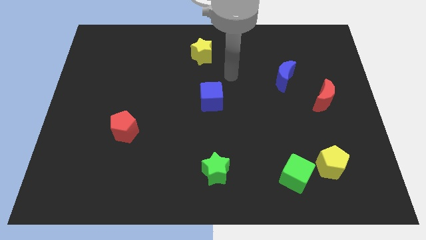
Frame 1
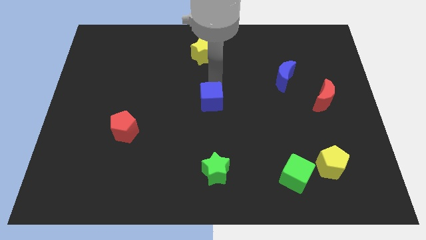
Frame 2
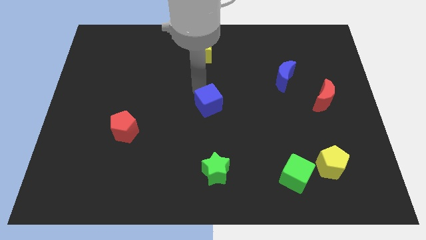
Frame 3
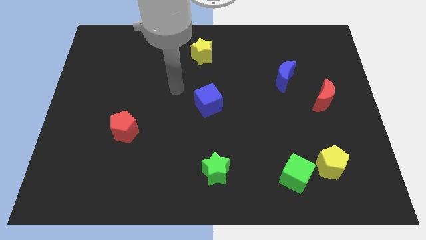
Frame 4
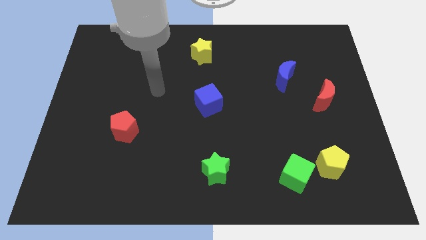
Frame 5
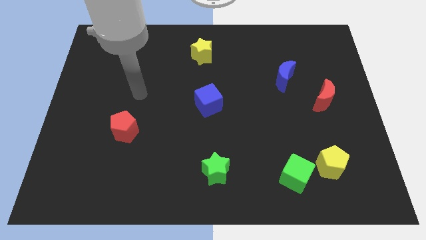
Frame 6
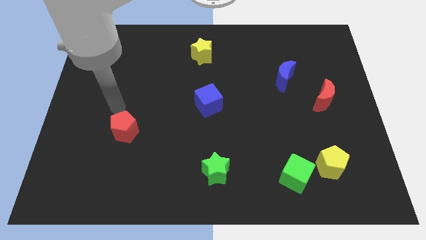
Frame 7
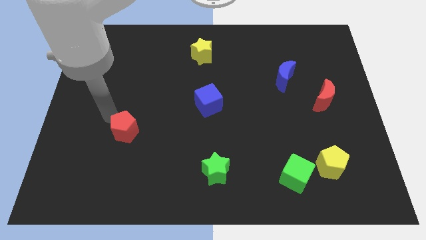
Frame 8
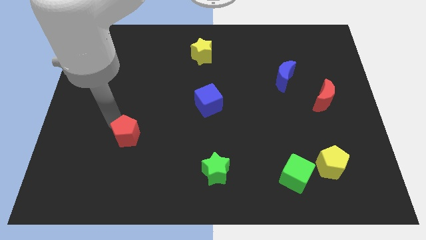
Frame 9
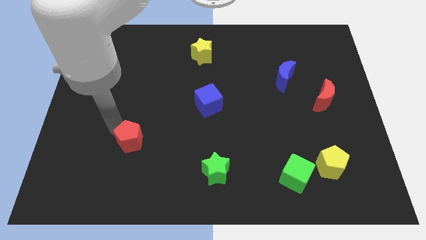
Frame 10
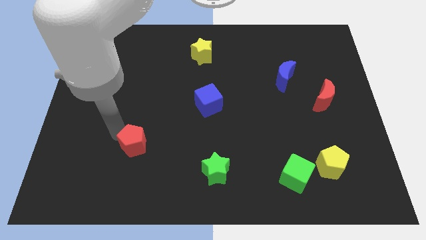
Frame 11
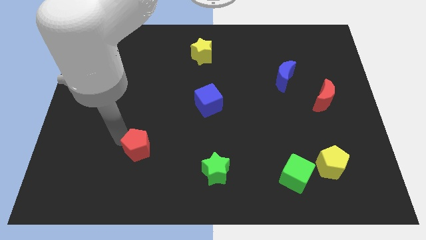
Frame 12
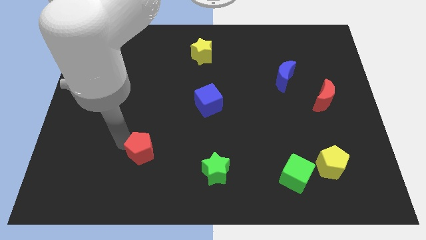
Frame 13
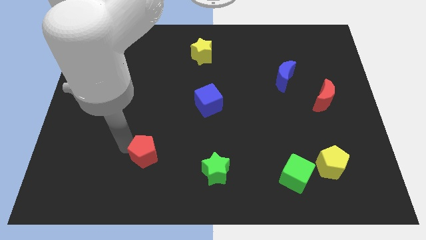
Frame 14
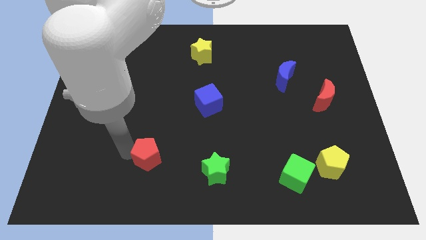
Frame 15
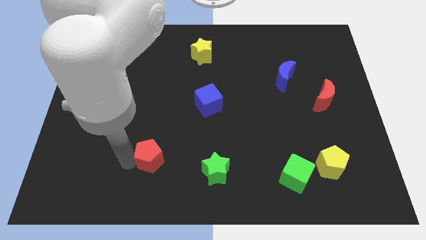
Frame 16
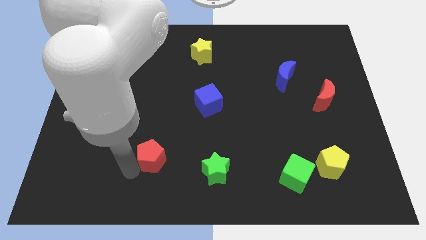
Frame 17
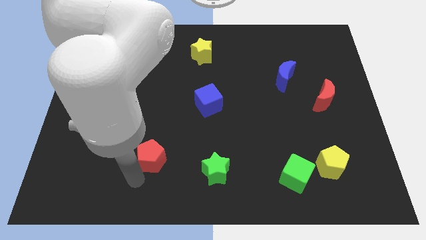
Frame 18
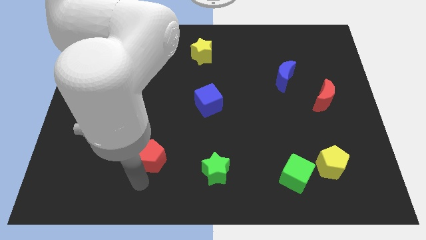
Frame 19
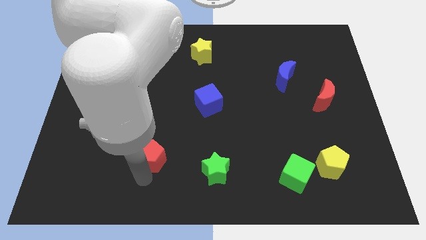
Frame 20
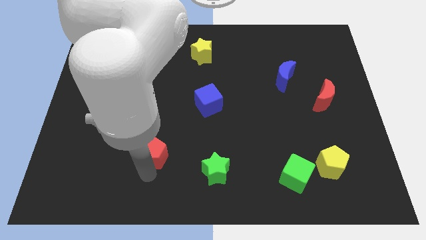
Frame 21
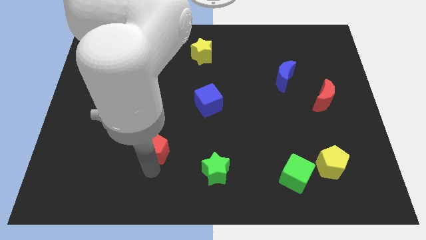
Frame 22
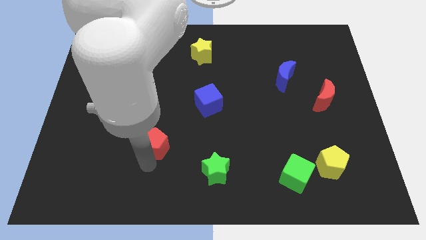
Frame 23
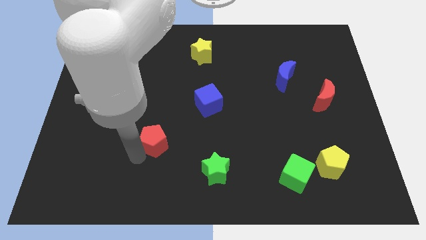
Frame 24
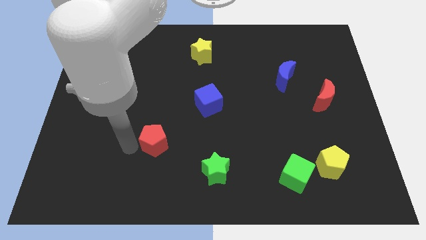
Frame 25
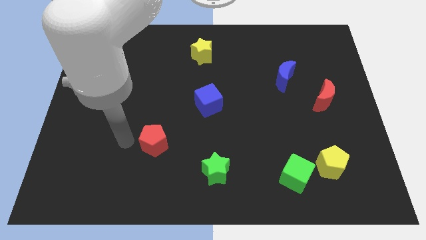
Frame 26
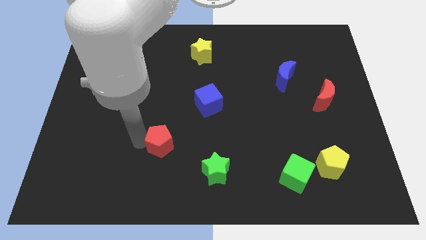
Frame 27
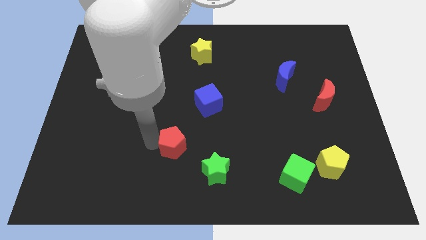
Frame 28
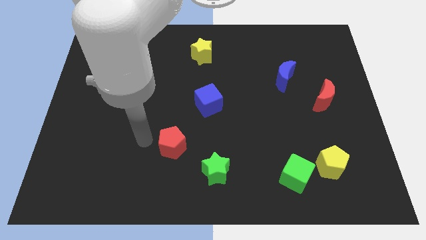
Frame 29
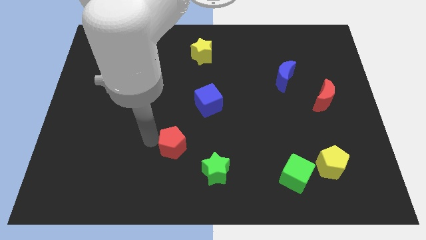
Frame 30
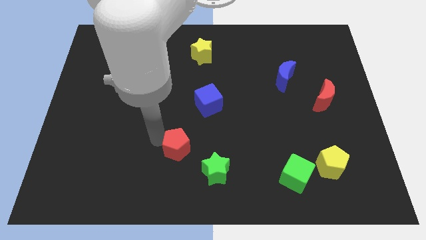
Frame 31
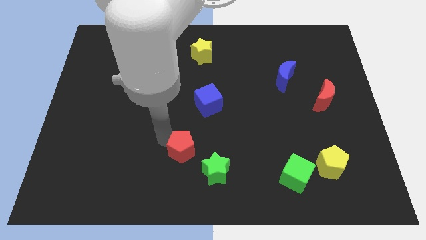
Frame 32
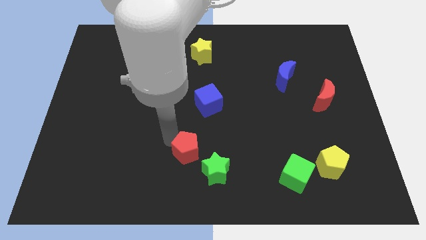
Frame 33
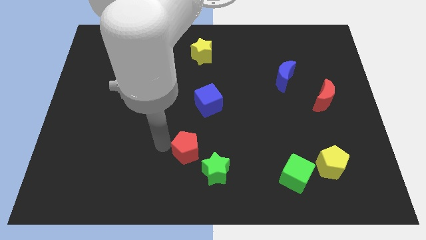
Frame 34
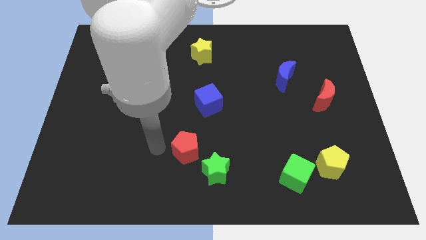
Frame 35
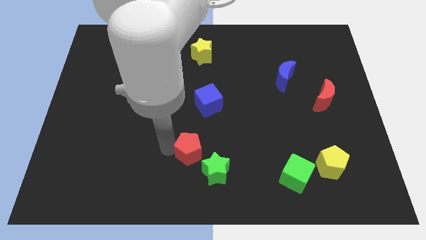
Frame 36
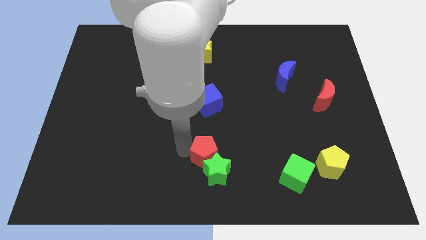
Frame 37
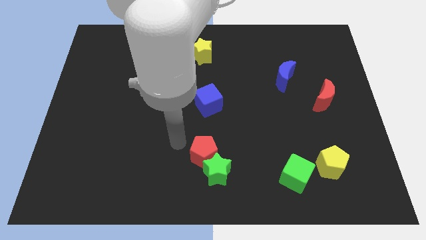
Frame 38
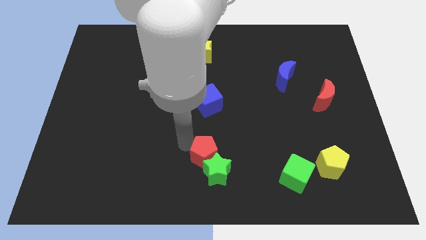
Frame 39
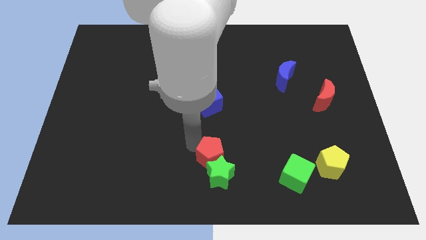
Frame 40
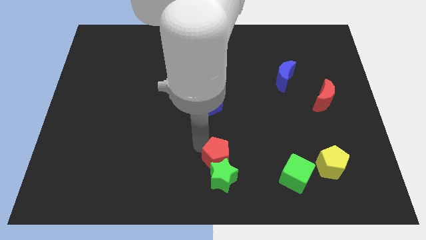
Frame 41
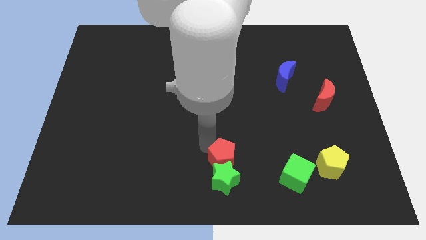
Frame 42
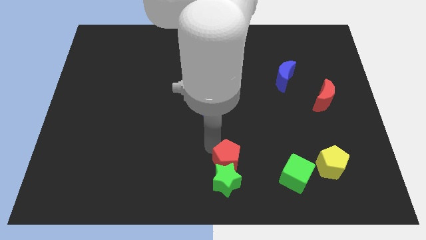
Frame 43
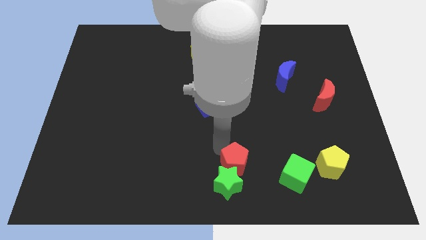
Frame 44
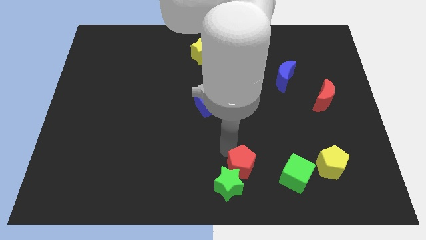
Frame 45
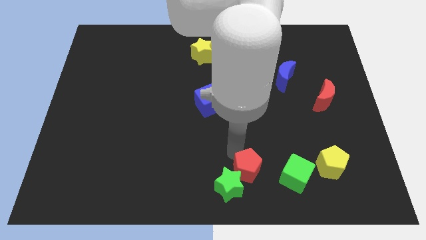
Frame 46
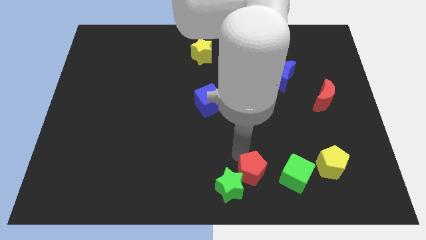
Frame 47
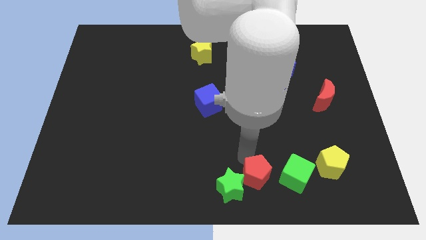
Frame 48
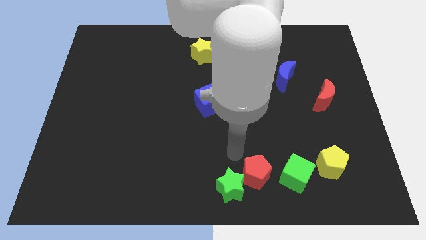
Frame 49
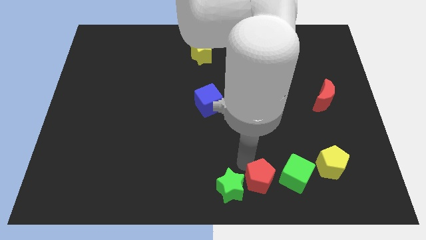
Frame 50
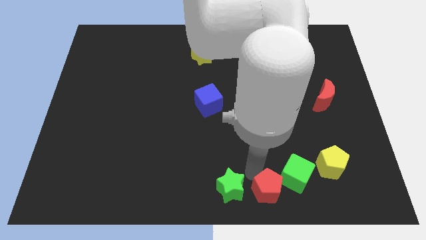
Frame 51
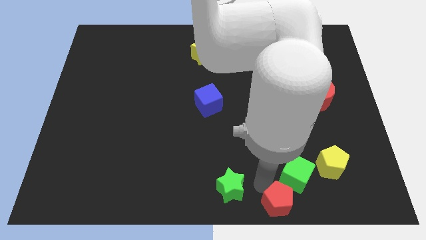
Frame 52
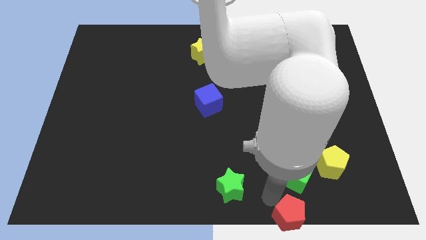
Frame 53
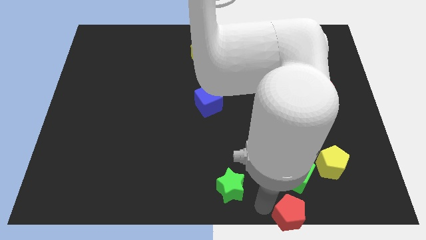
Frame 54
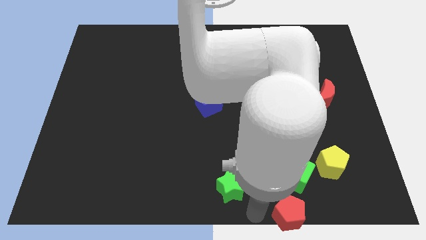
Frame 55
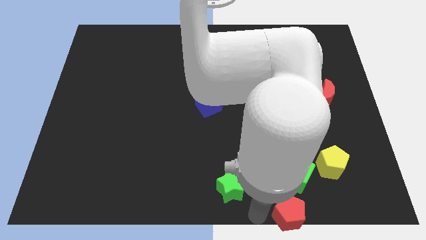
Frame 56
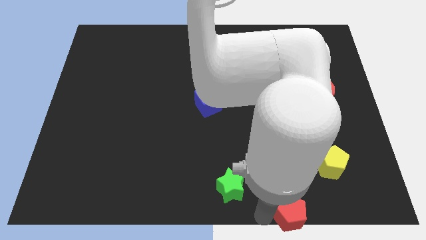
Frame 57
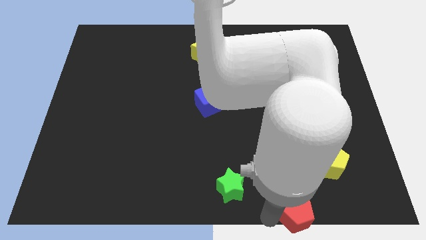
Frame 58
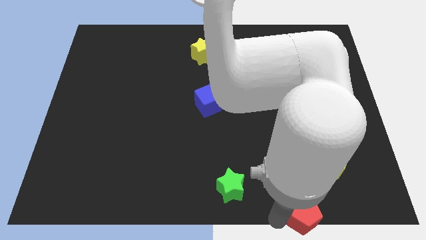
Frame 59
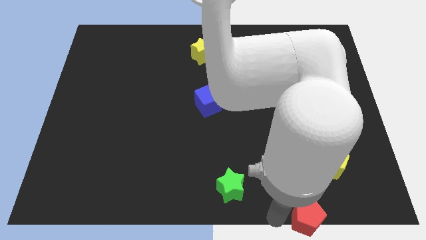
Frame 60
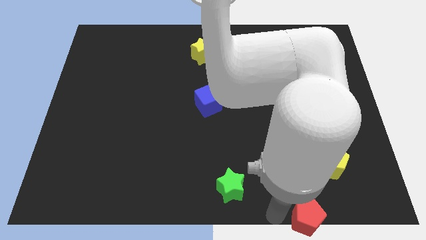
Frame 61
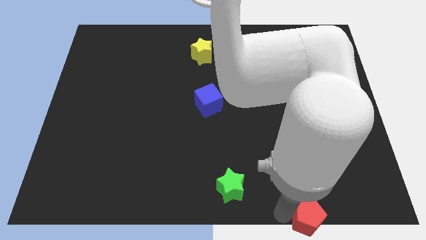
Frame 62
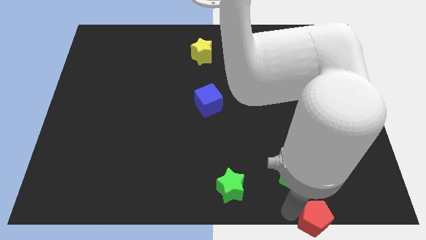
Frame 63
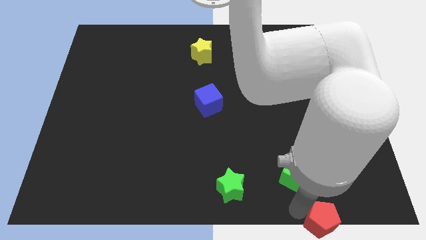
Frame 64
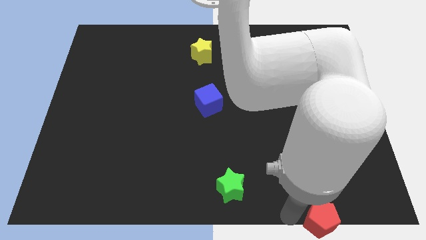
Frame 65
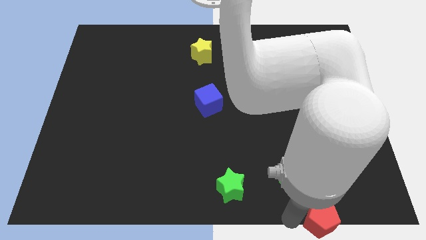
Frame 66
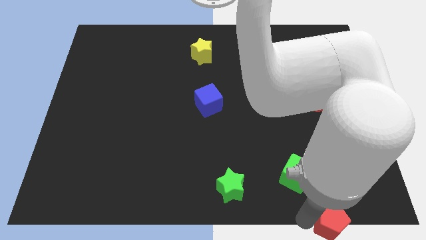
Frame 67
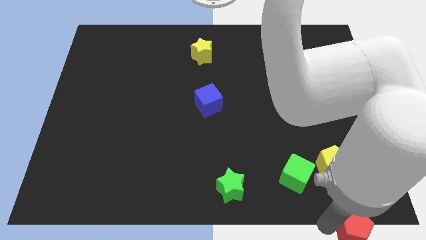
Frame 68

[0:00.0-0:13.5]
put the red pentagon to the lower right corner
